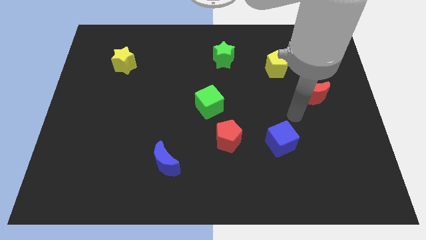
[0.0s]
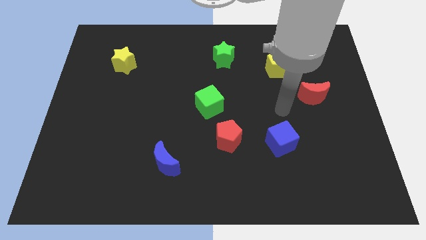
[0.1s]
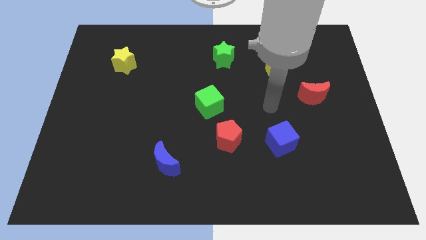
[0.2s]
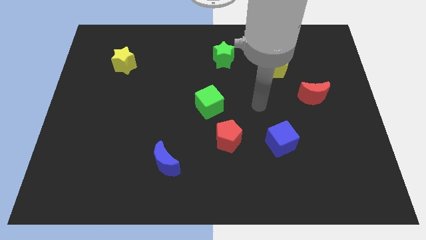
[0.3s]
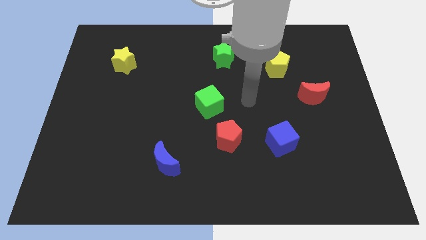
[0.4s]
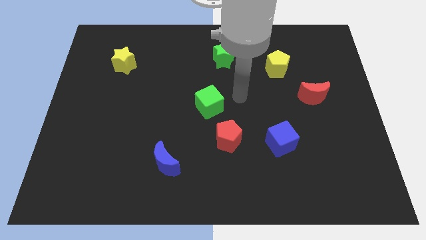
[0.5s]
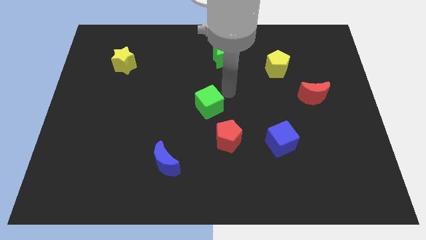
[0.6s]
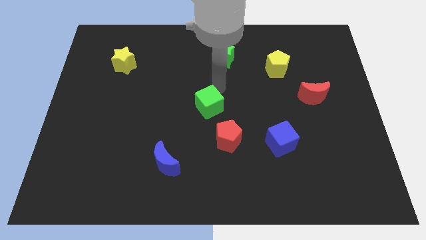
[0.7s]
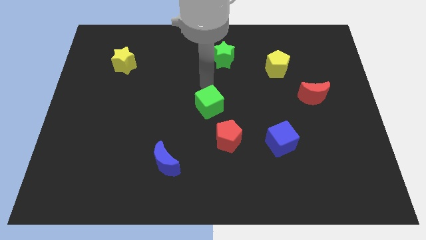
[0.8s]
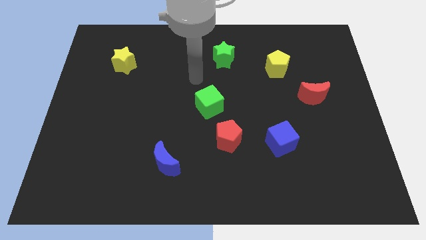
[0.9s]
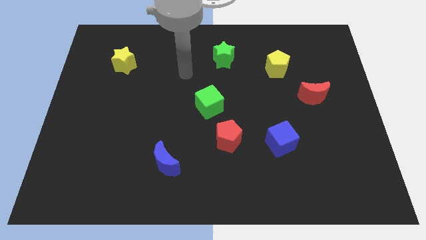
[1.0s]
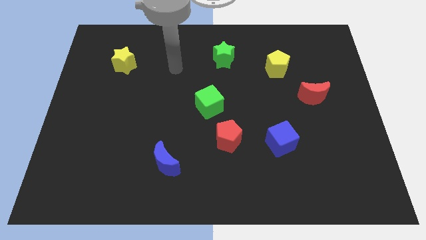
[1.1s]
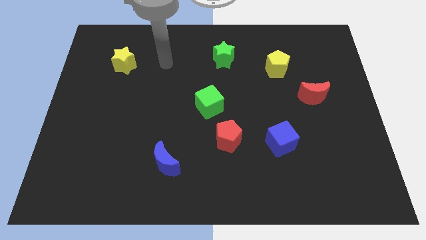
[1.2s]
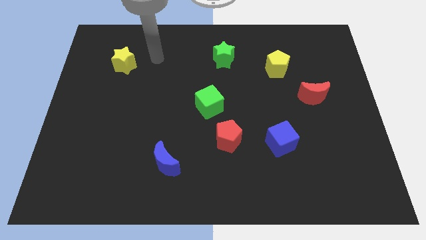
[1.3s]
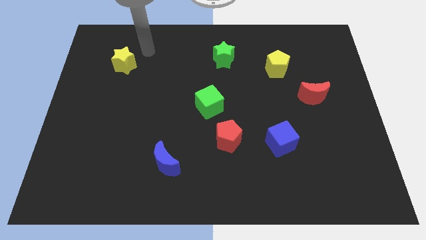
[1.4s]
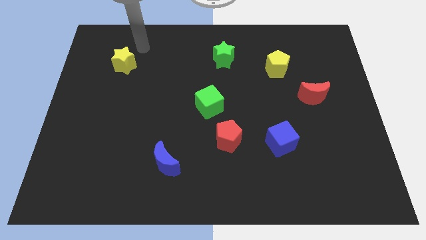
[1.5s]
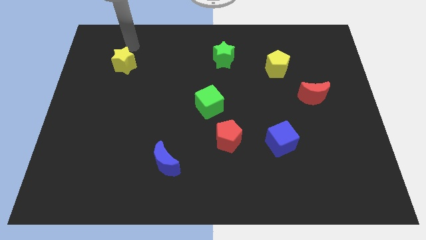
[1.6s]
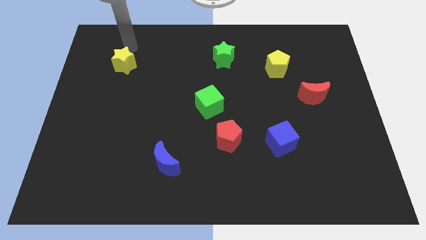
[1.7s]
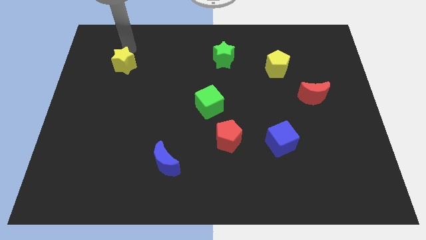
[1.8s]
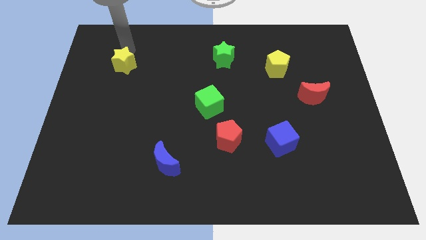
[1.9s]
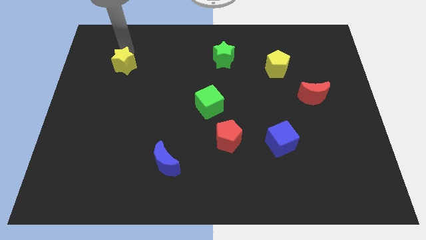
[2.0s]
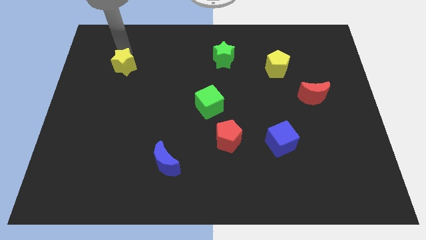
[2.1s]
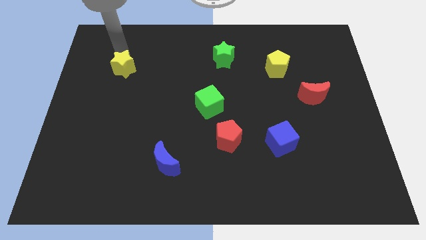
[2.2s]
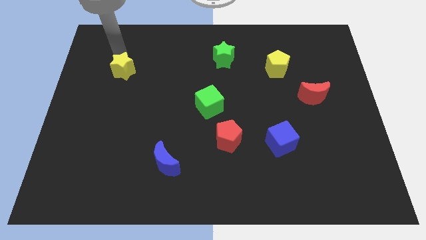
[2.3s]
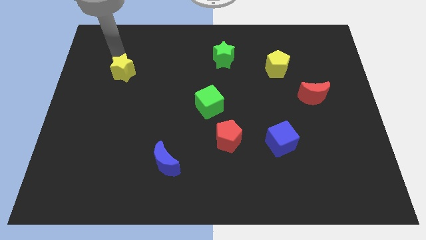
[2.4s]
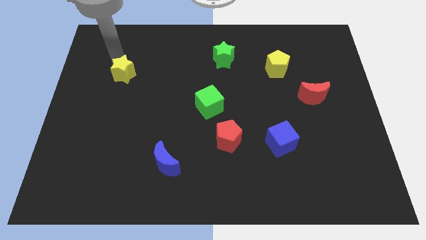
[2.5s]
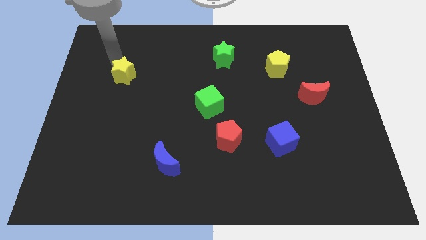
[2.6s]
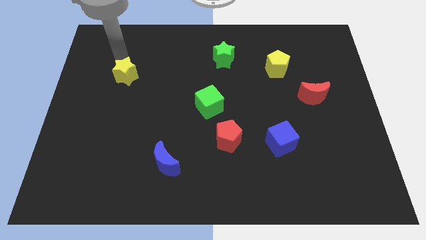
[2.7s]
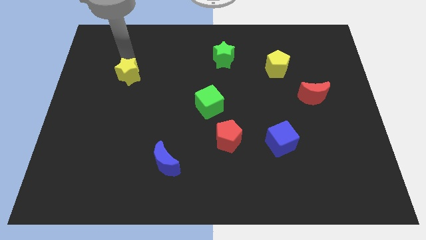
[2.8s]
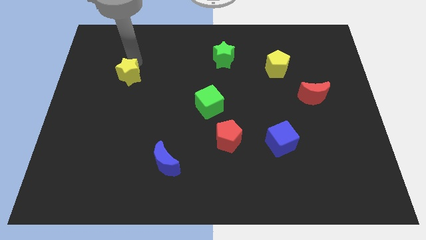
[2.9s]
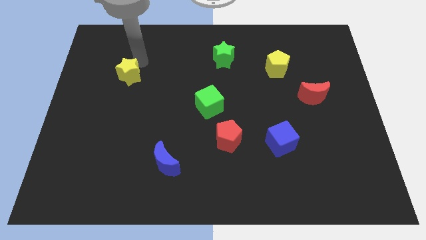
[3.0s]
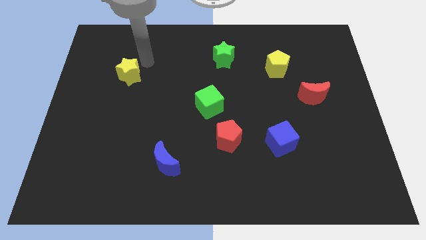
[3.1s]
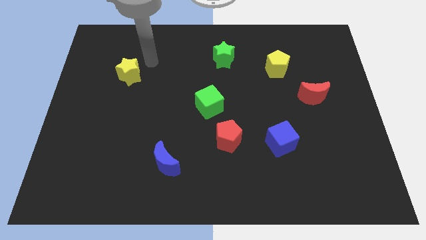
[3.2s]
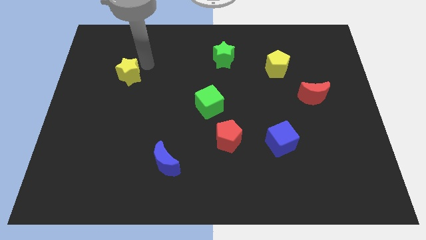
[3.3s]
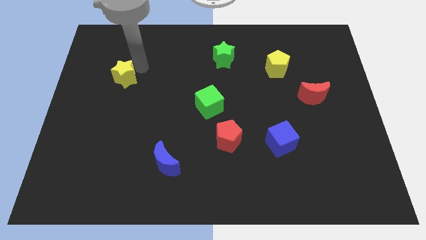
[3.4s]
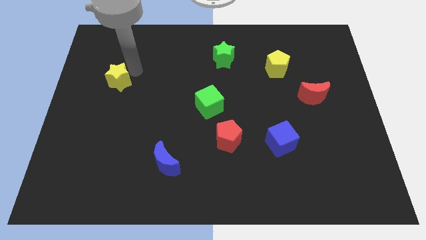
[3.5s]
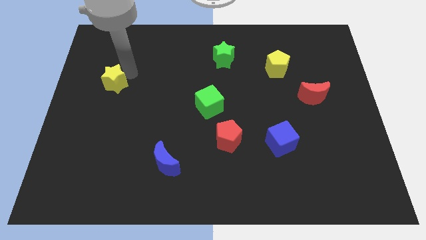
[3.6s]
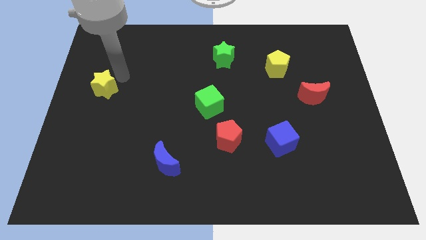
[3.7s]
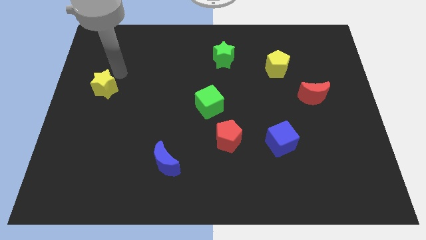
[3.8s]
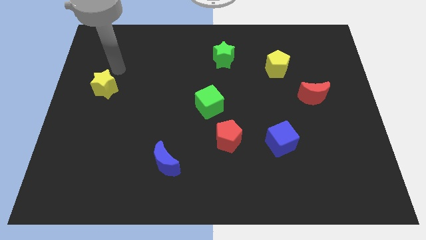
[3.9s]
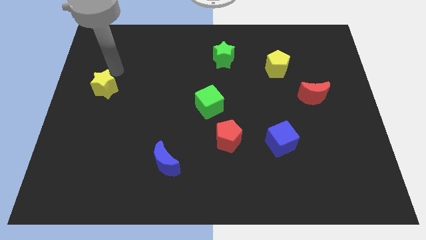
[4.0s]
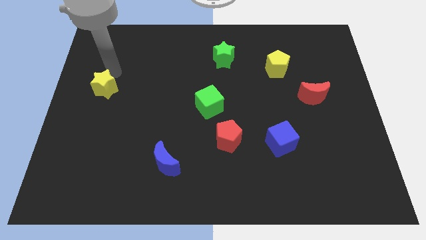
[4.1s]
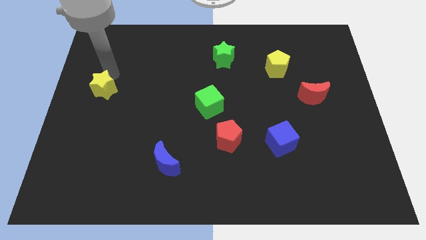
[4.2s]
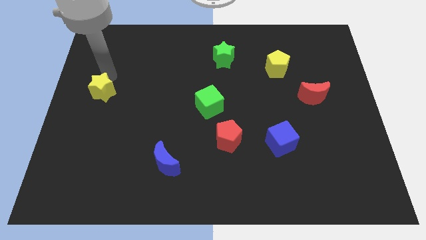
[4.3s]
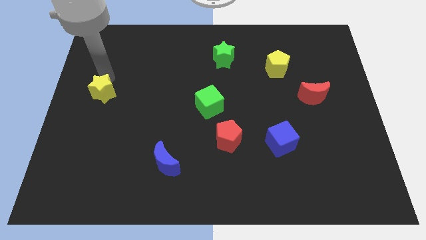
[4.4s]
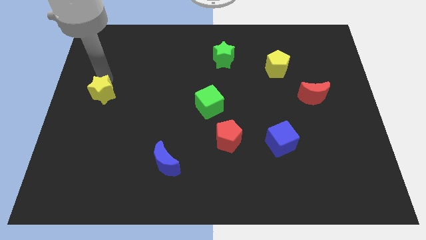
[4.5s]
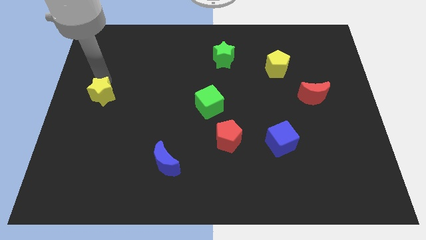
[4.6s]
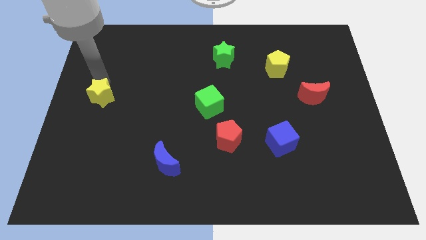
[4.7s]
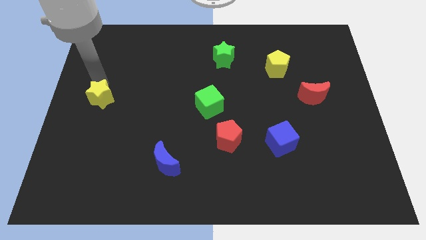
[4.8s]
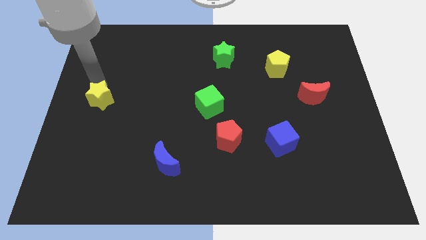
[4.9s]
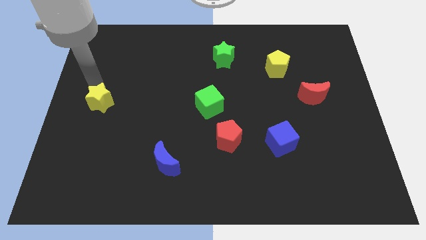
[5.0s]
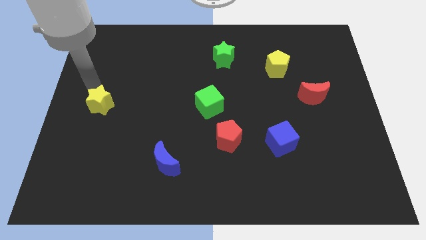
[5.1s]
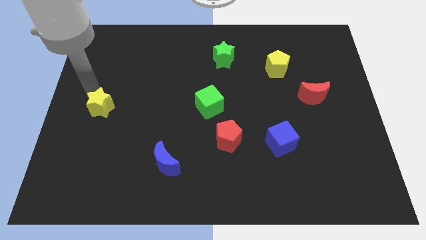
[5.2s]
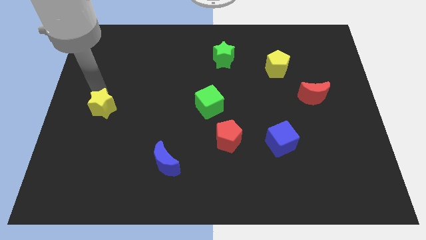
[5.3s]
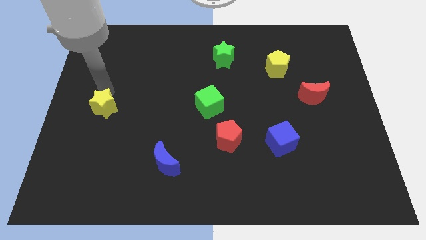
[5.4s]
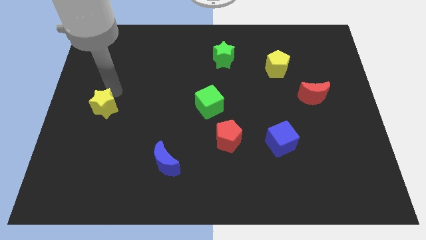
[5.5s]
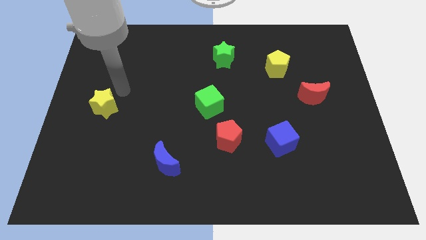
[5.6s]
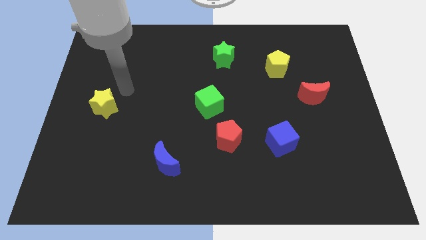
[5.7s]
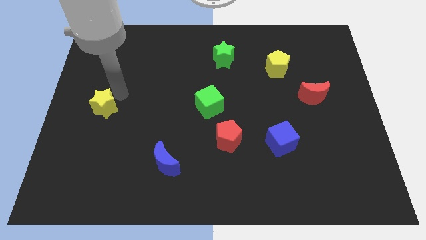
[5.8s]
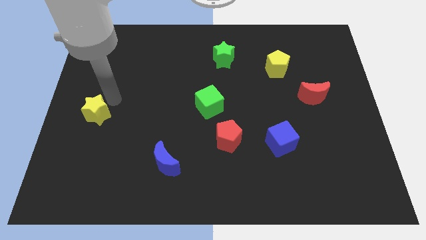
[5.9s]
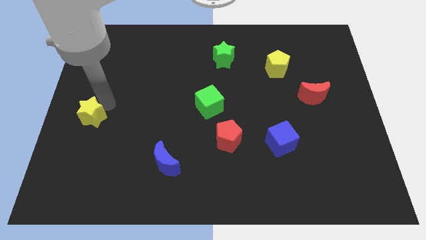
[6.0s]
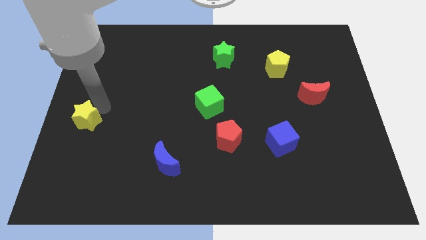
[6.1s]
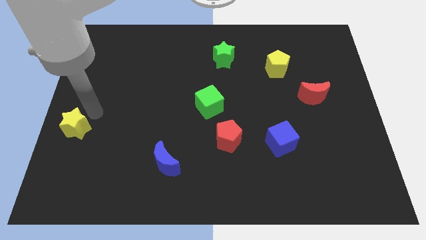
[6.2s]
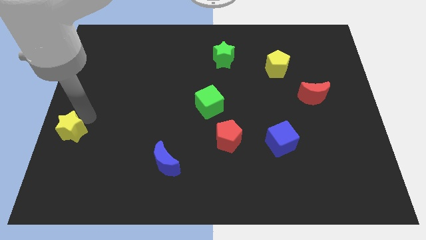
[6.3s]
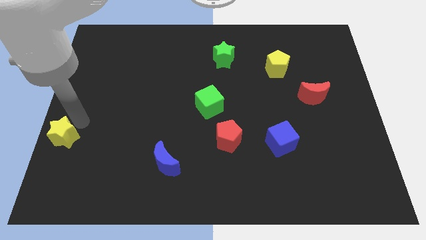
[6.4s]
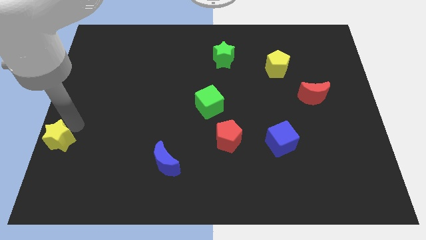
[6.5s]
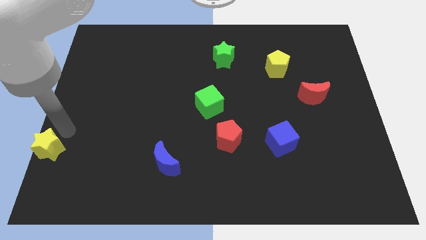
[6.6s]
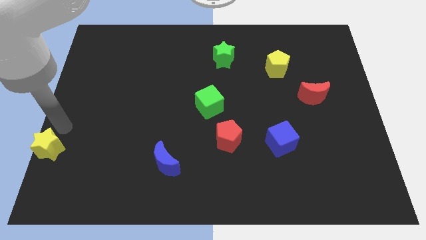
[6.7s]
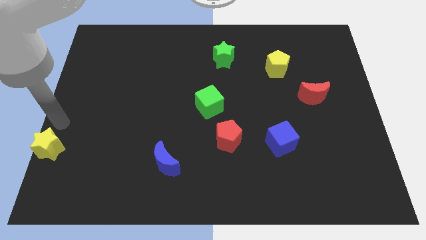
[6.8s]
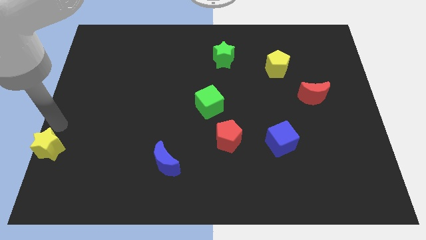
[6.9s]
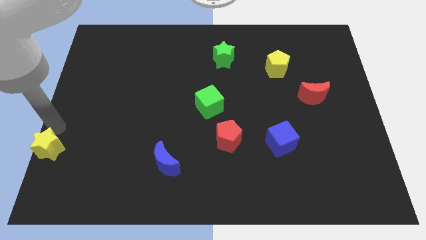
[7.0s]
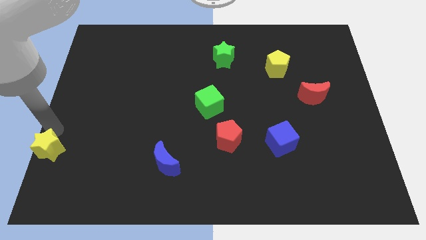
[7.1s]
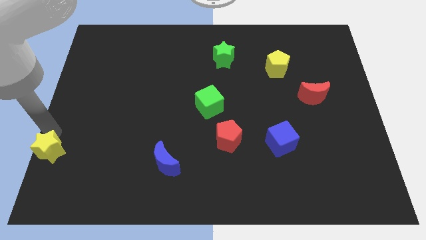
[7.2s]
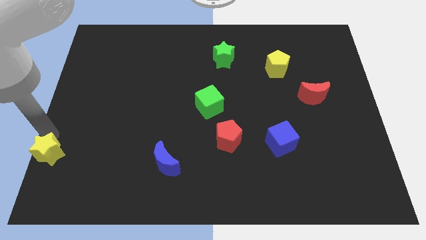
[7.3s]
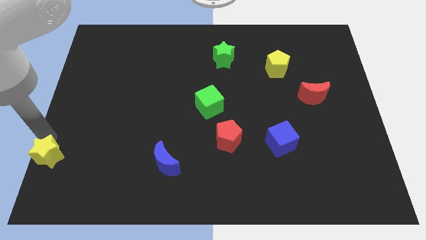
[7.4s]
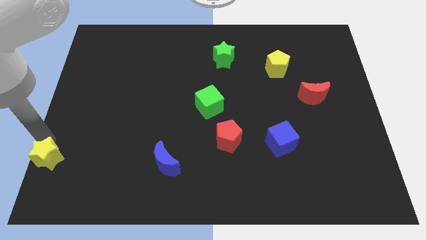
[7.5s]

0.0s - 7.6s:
slide the yellow star to the bottom left of the board

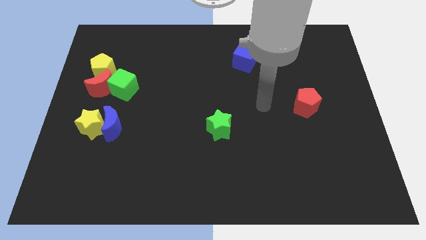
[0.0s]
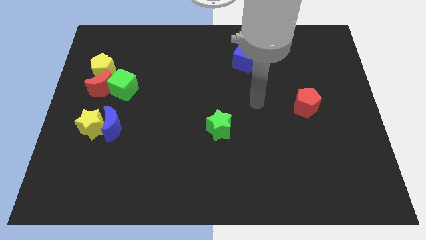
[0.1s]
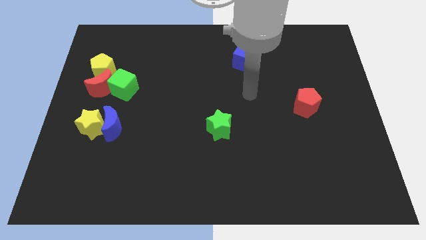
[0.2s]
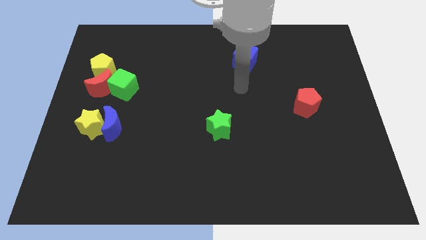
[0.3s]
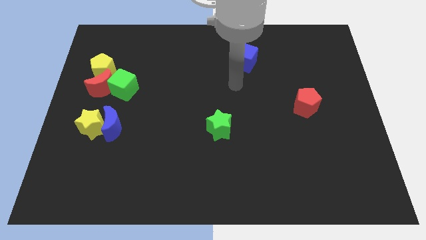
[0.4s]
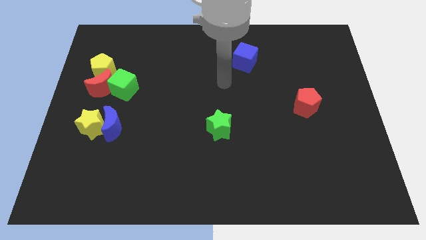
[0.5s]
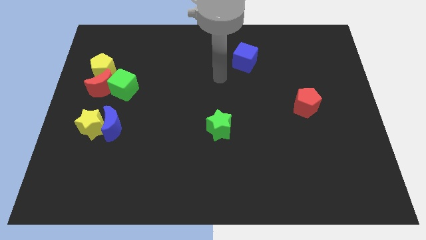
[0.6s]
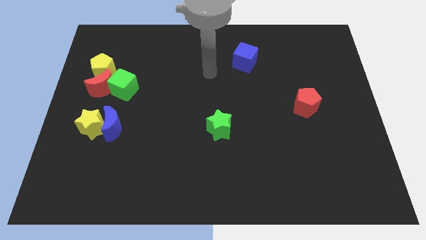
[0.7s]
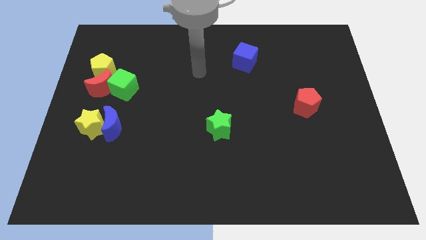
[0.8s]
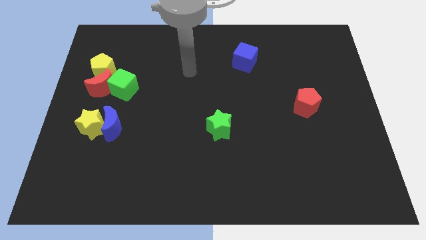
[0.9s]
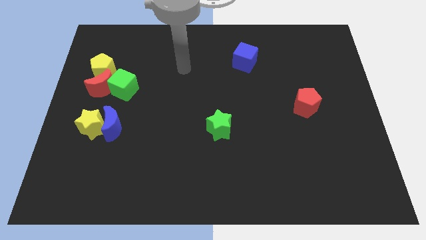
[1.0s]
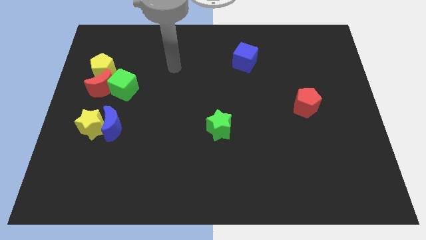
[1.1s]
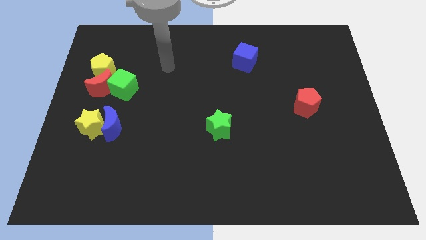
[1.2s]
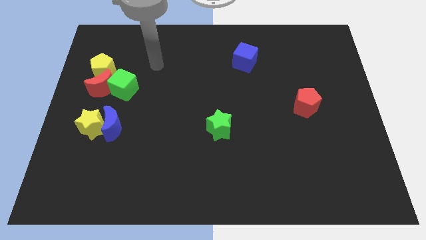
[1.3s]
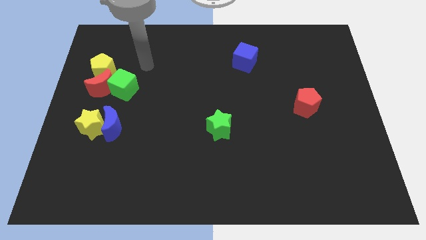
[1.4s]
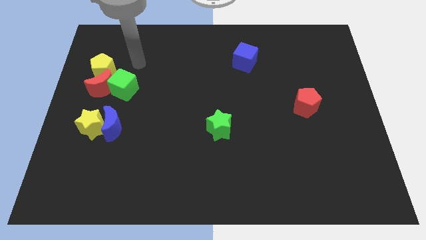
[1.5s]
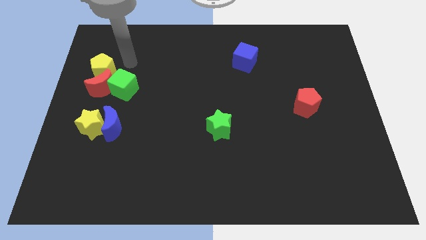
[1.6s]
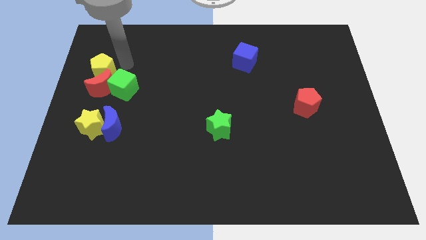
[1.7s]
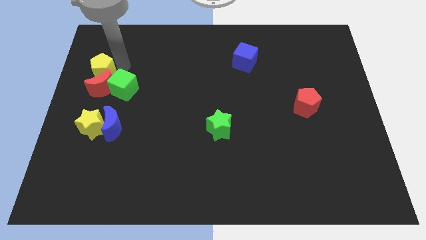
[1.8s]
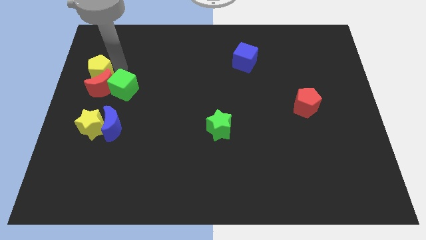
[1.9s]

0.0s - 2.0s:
push the yellow pentagon to the center left
